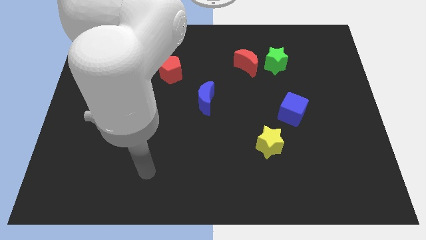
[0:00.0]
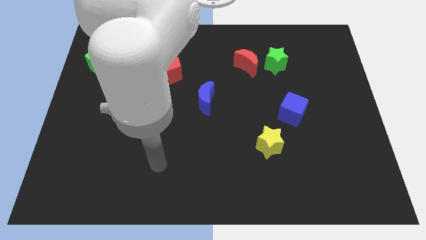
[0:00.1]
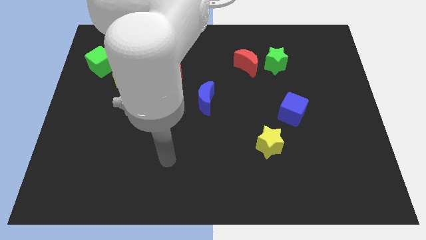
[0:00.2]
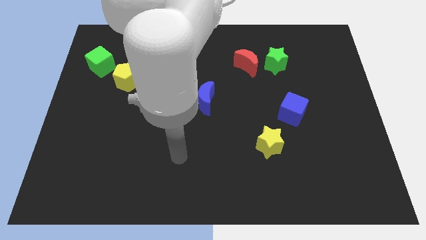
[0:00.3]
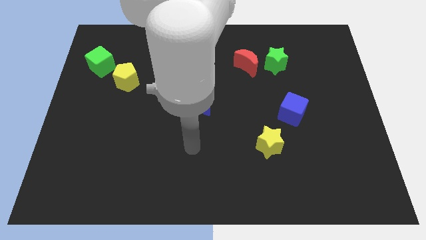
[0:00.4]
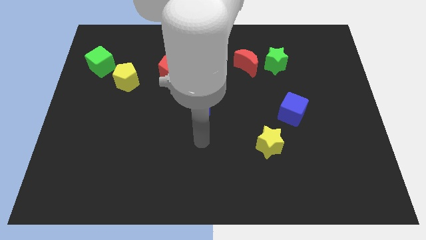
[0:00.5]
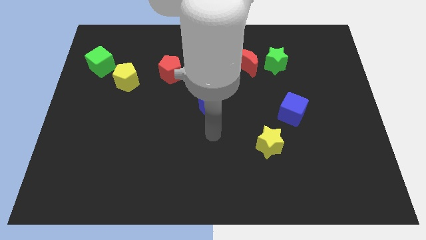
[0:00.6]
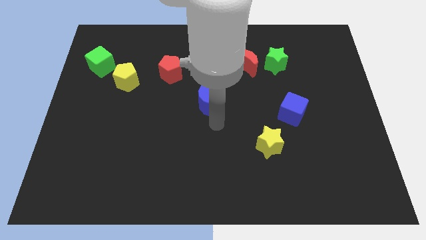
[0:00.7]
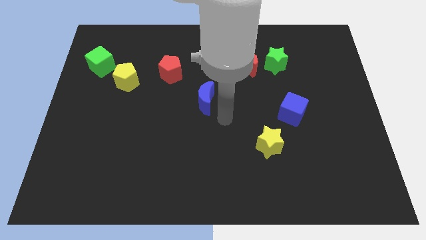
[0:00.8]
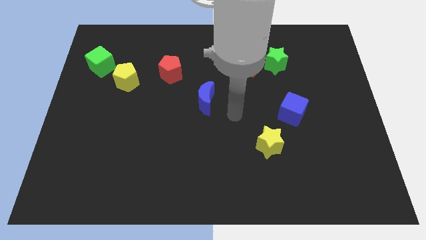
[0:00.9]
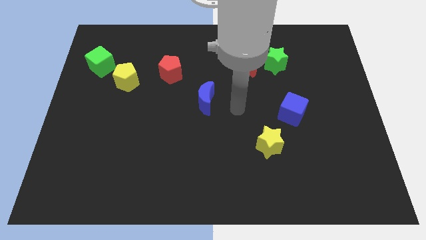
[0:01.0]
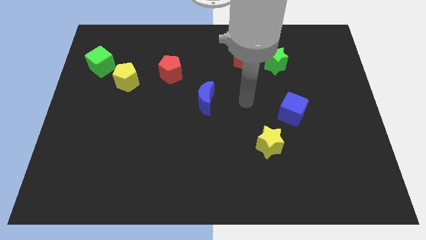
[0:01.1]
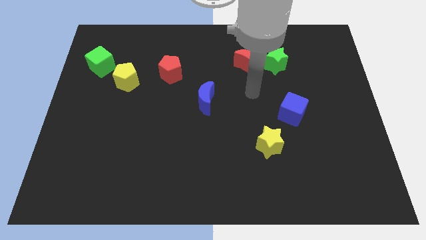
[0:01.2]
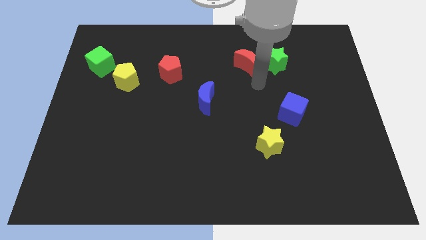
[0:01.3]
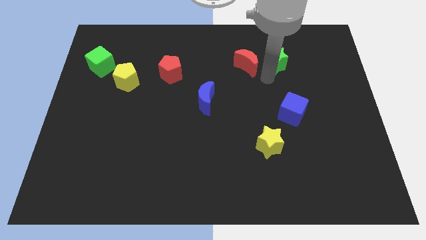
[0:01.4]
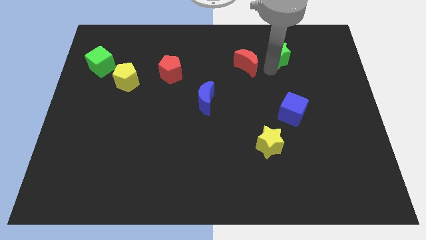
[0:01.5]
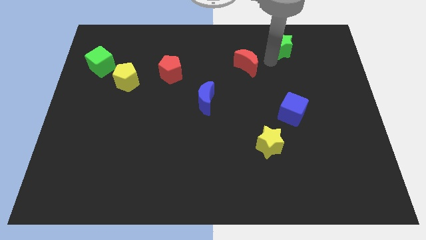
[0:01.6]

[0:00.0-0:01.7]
separate the red moon from the green star

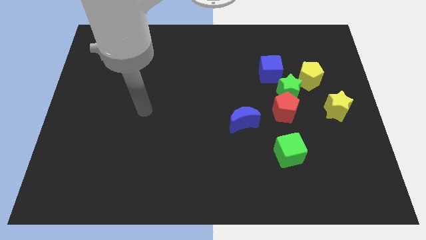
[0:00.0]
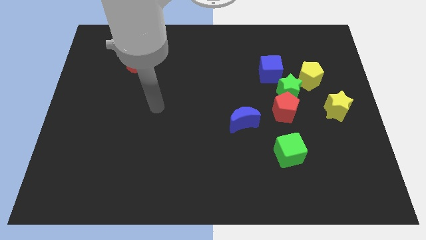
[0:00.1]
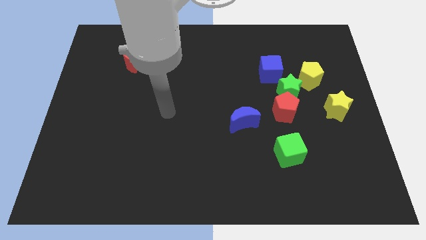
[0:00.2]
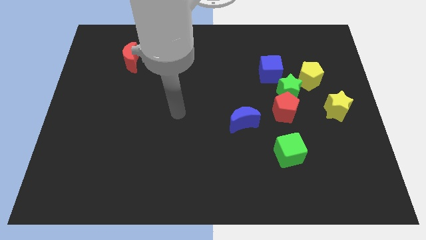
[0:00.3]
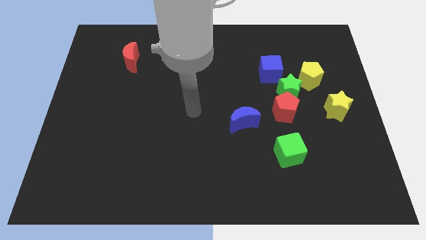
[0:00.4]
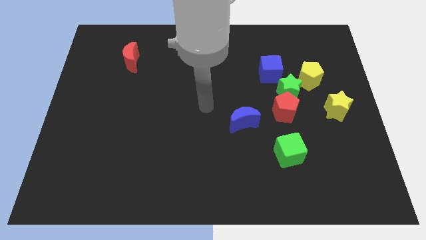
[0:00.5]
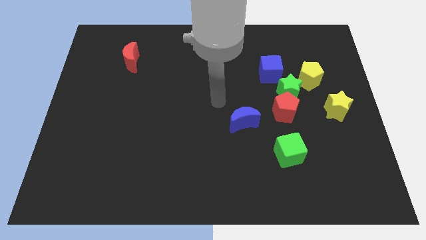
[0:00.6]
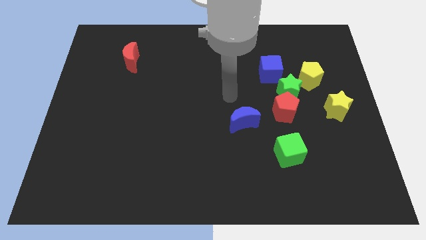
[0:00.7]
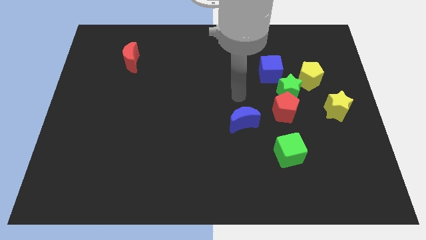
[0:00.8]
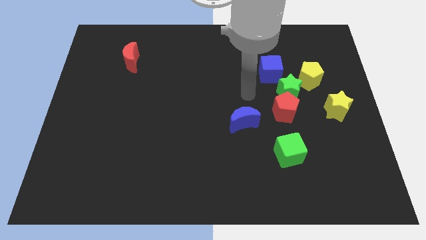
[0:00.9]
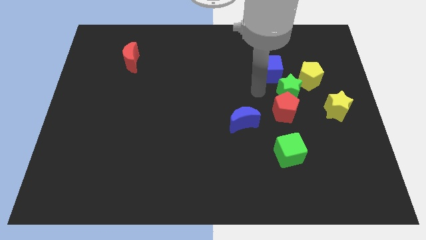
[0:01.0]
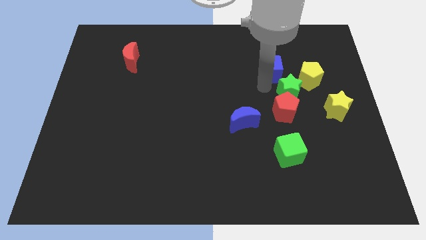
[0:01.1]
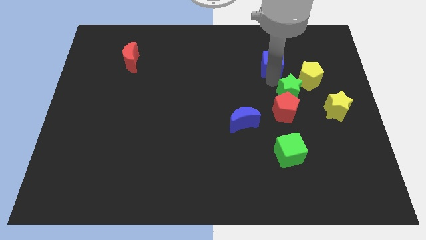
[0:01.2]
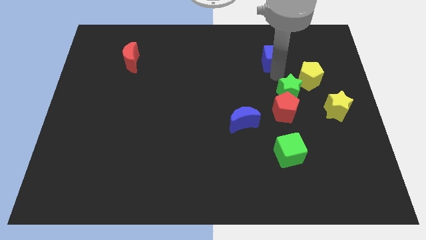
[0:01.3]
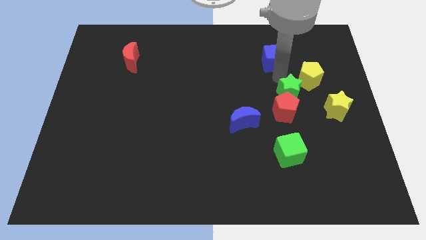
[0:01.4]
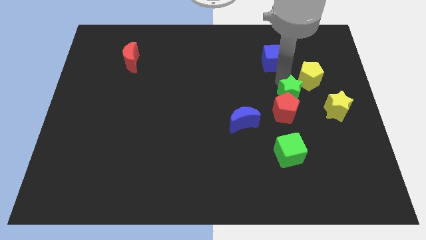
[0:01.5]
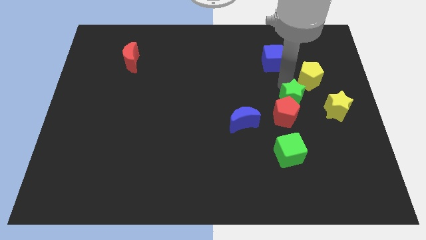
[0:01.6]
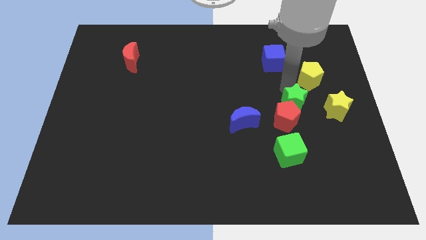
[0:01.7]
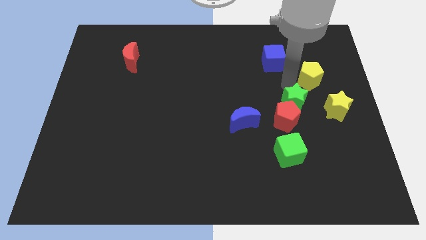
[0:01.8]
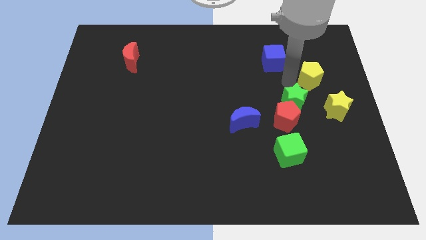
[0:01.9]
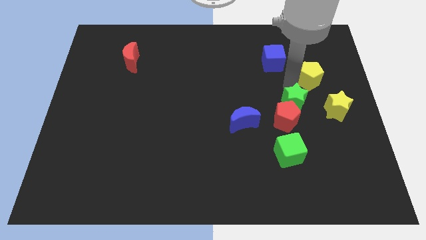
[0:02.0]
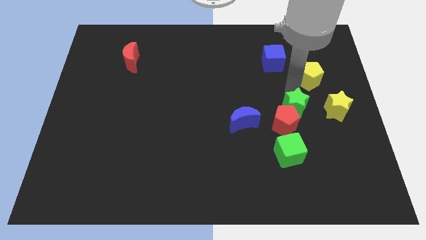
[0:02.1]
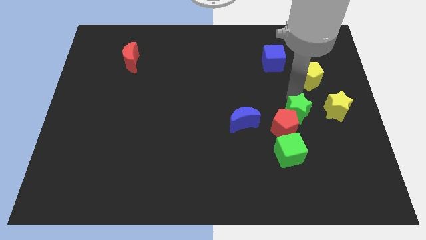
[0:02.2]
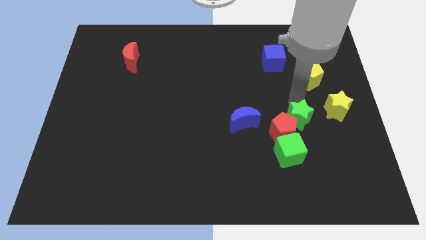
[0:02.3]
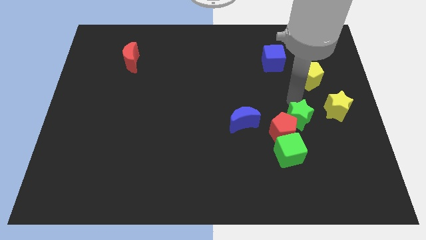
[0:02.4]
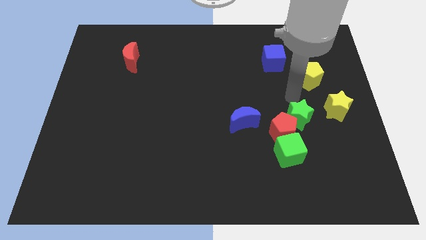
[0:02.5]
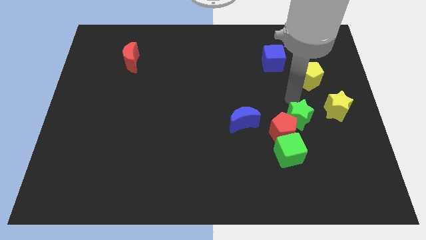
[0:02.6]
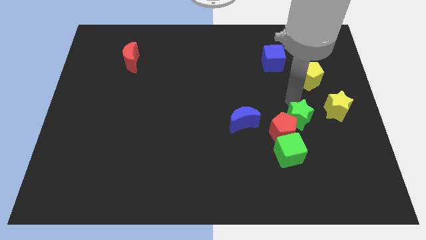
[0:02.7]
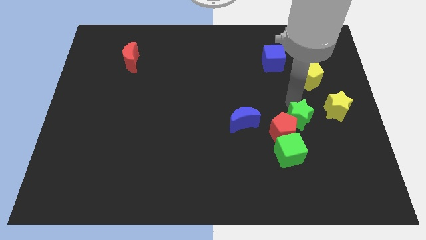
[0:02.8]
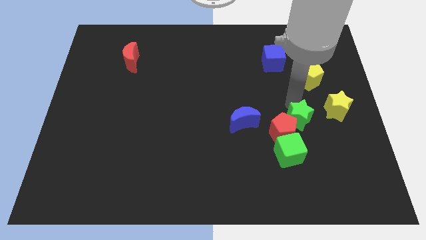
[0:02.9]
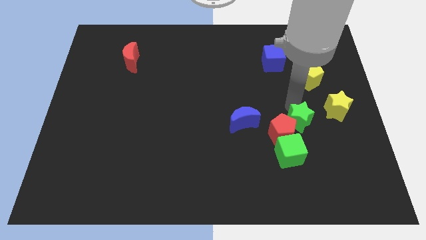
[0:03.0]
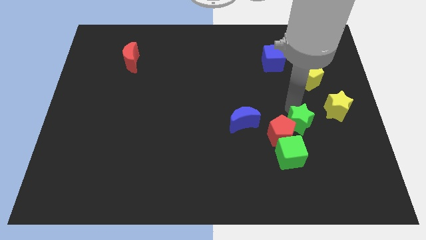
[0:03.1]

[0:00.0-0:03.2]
move the green star away from the red pentagon, yellow pentagon, and blue cube

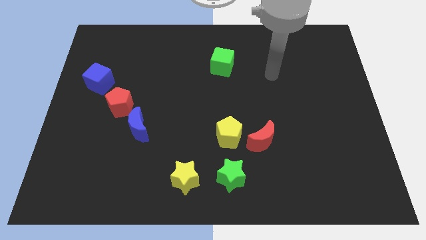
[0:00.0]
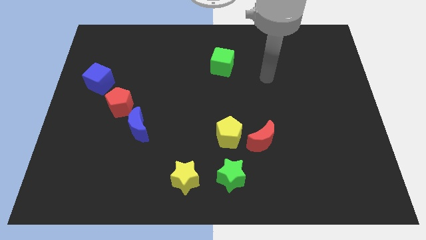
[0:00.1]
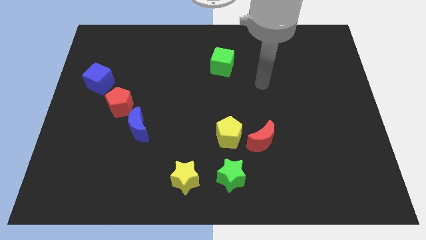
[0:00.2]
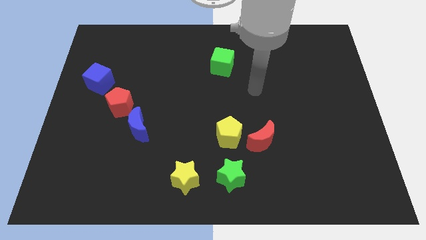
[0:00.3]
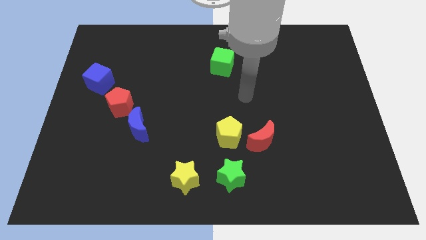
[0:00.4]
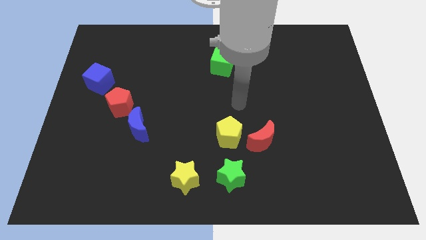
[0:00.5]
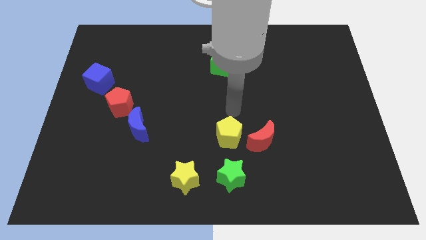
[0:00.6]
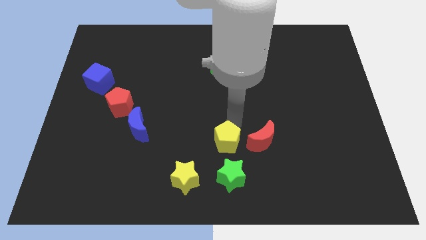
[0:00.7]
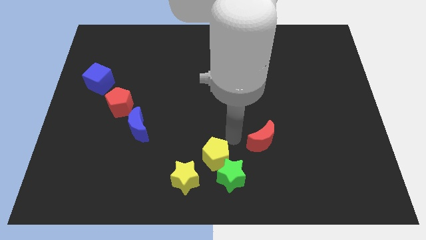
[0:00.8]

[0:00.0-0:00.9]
separate the red moon from the yellow pentagon

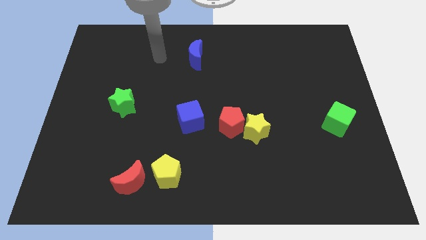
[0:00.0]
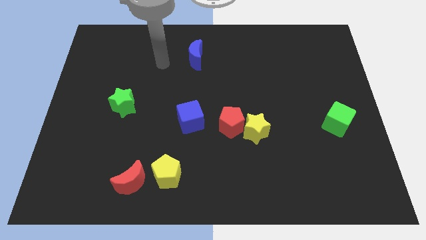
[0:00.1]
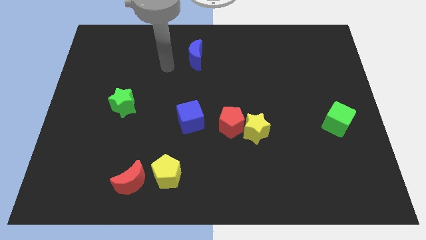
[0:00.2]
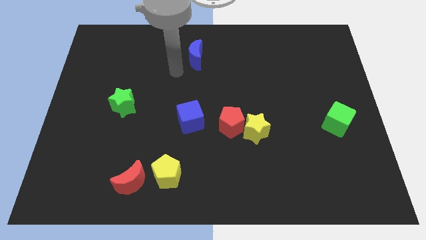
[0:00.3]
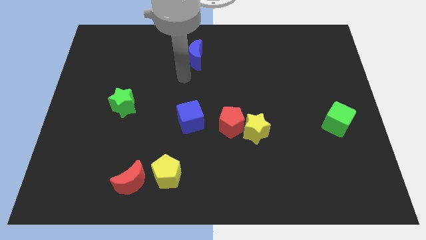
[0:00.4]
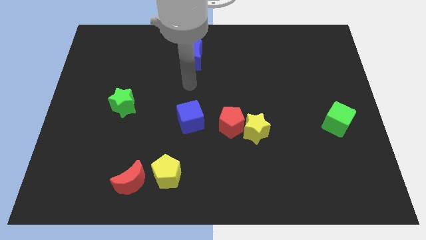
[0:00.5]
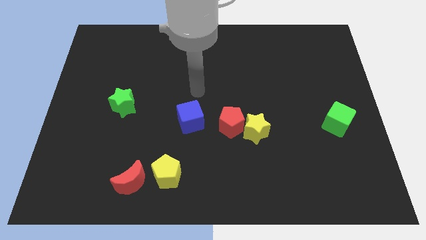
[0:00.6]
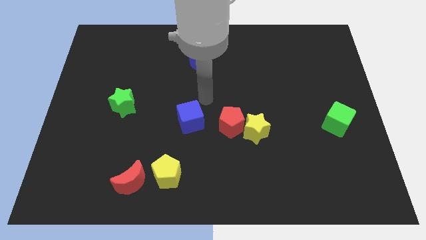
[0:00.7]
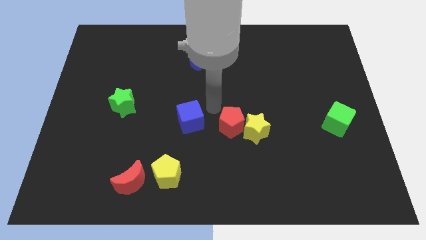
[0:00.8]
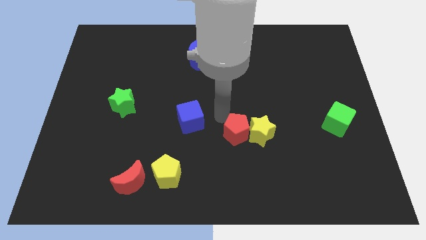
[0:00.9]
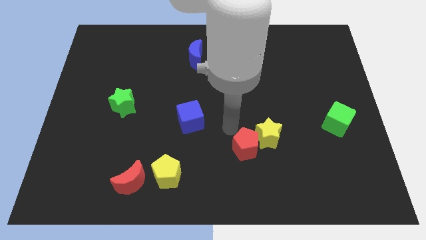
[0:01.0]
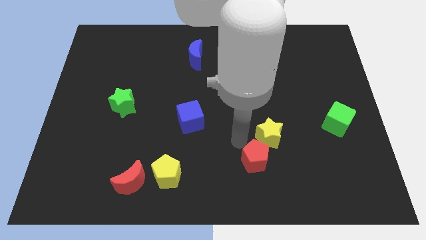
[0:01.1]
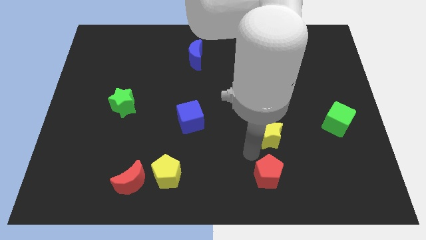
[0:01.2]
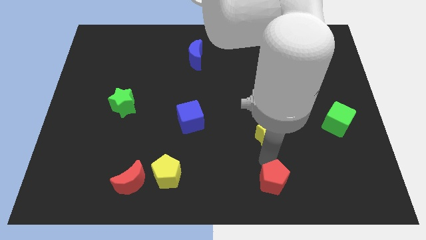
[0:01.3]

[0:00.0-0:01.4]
separate the yellow star from the red pentagon

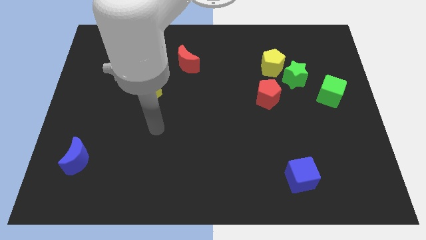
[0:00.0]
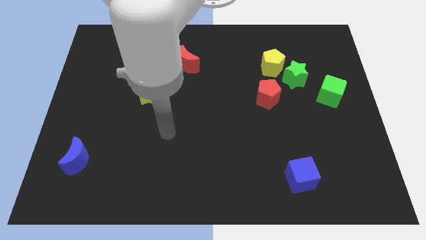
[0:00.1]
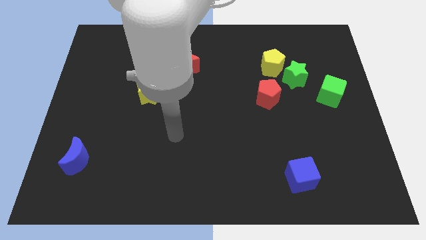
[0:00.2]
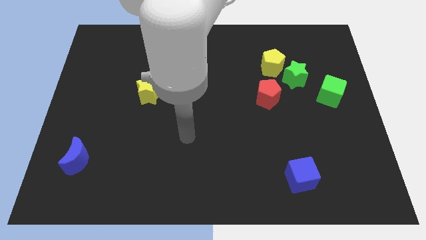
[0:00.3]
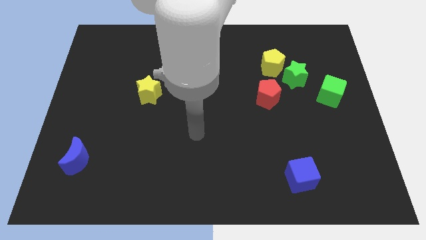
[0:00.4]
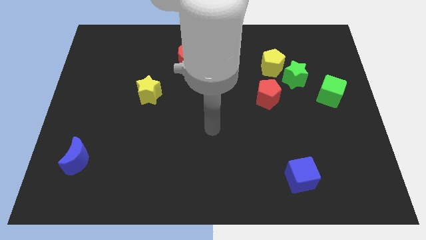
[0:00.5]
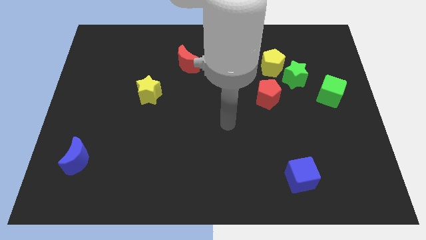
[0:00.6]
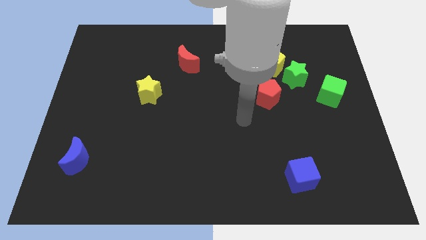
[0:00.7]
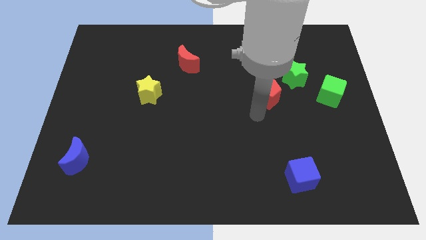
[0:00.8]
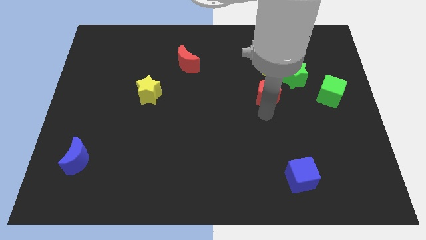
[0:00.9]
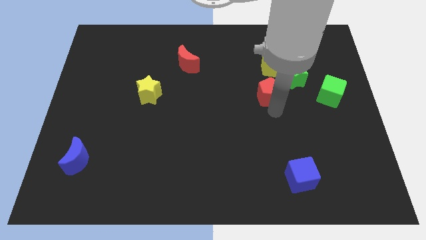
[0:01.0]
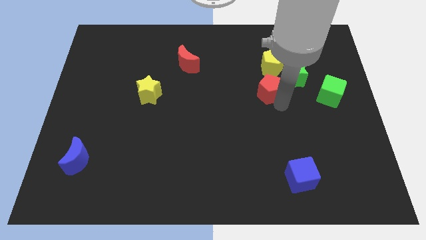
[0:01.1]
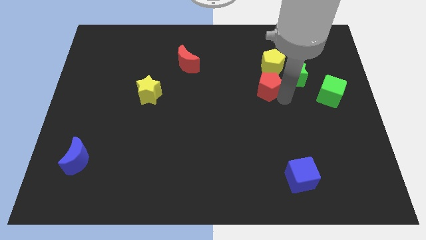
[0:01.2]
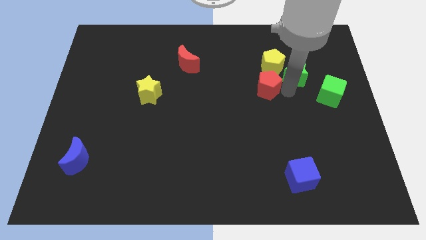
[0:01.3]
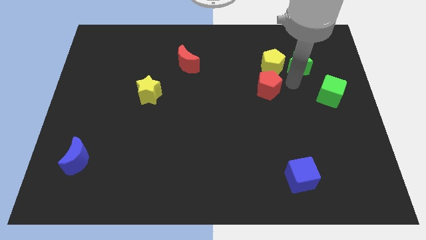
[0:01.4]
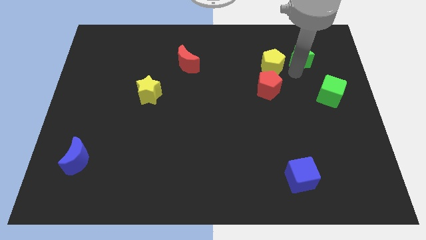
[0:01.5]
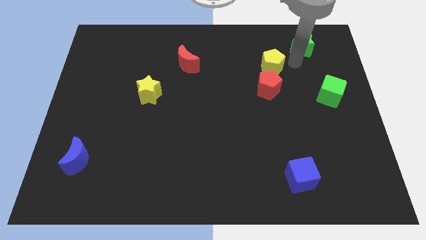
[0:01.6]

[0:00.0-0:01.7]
pull the yellow pentagon apart from the green star

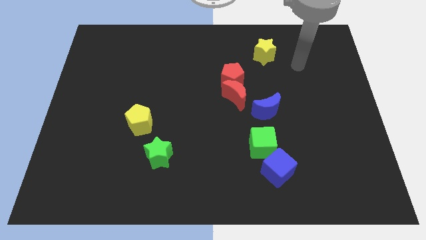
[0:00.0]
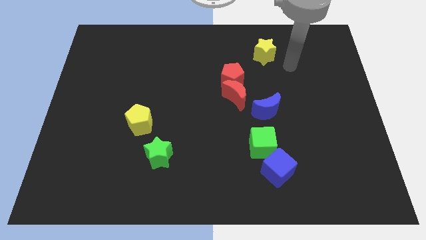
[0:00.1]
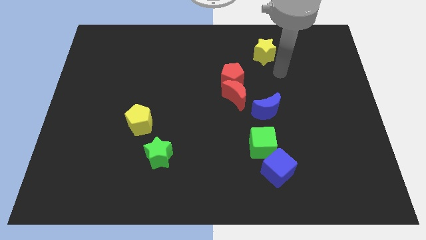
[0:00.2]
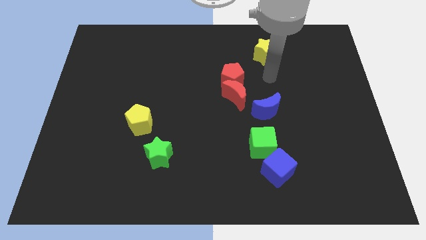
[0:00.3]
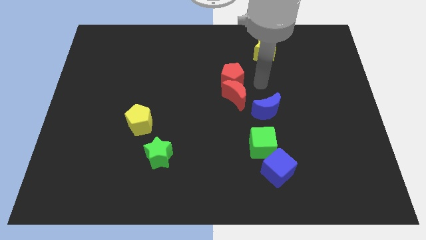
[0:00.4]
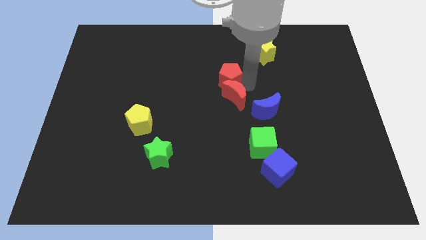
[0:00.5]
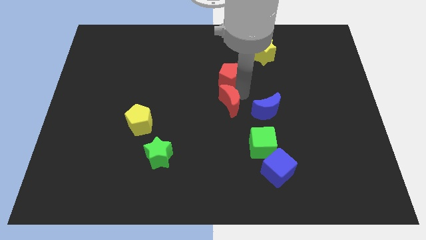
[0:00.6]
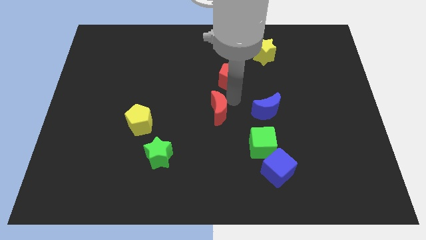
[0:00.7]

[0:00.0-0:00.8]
separate the red pentagon from the red moon
